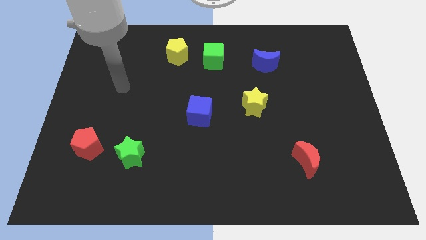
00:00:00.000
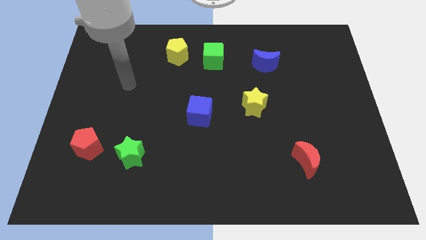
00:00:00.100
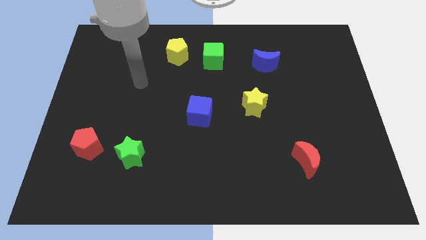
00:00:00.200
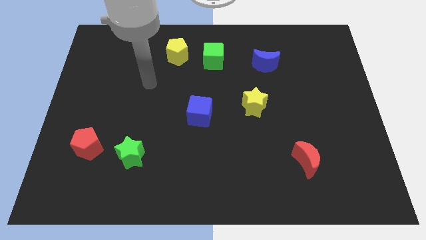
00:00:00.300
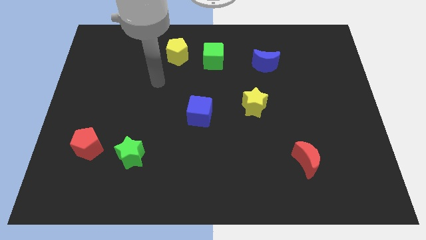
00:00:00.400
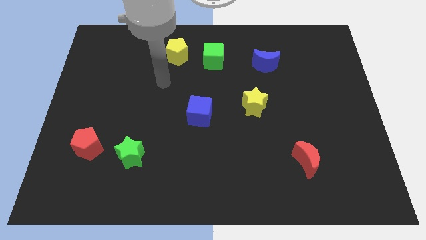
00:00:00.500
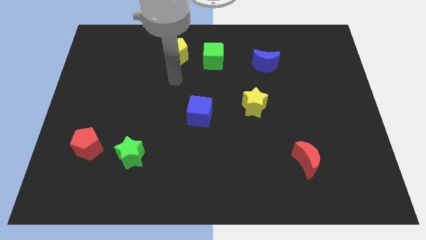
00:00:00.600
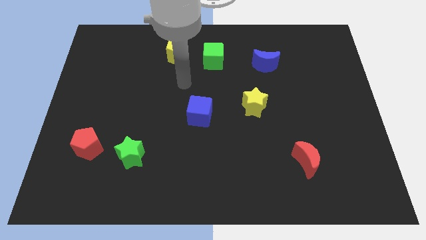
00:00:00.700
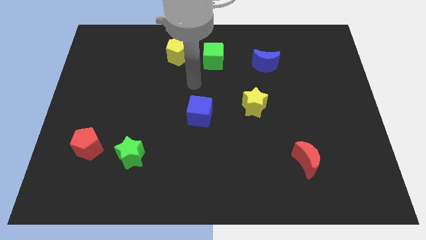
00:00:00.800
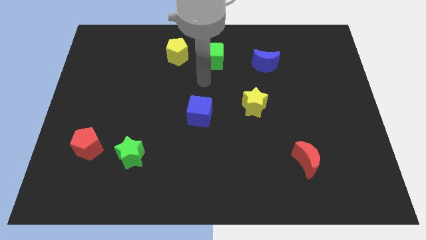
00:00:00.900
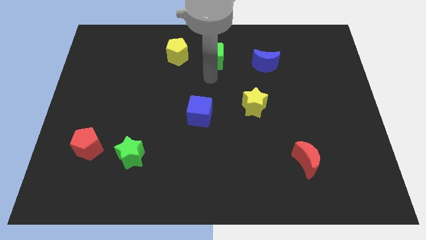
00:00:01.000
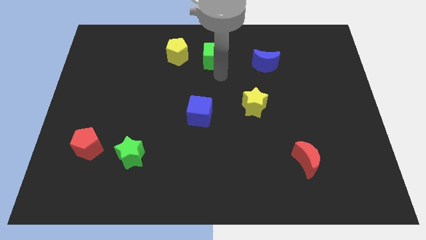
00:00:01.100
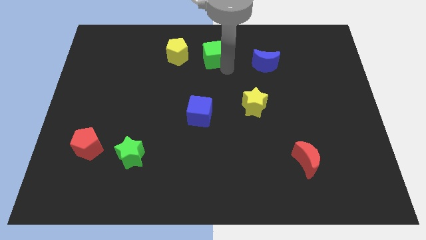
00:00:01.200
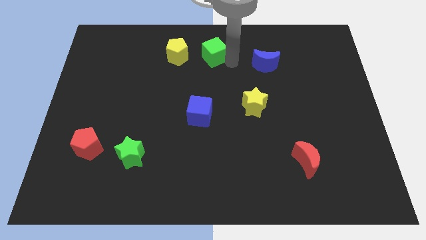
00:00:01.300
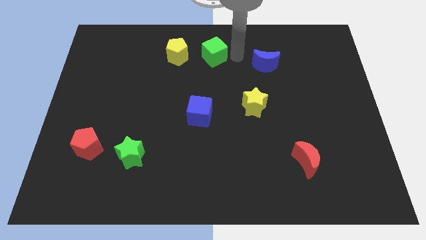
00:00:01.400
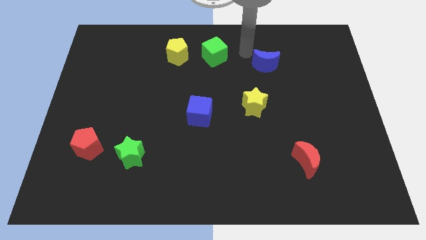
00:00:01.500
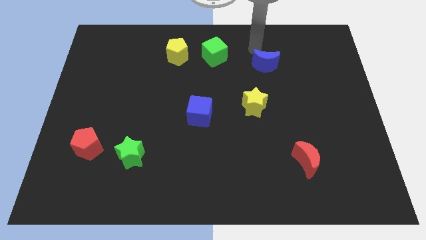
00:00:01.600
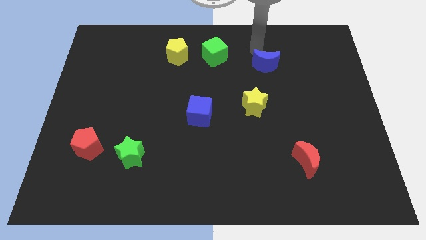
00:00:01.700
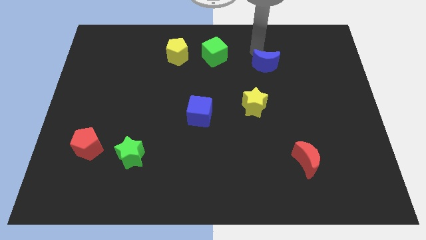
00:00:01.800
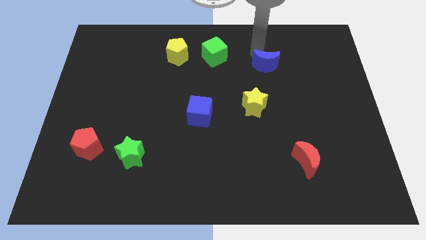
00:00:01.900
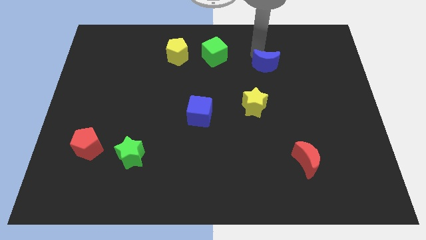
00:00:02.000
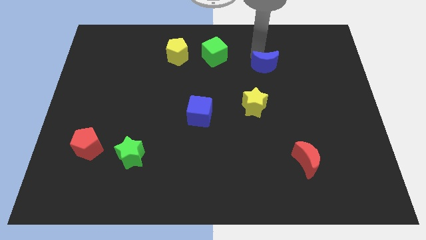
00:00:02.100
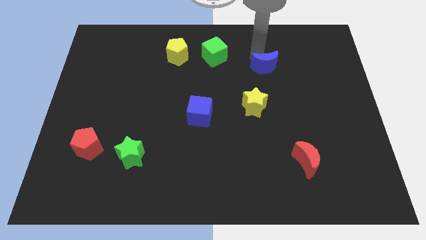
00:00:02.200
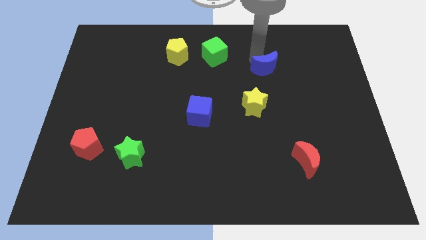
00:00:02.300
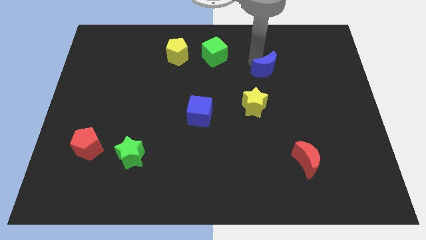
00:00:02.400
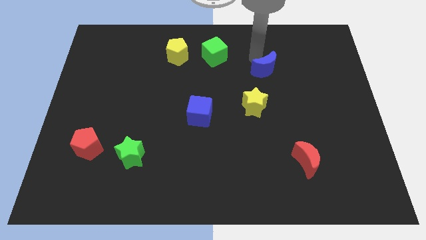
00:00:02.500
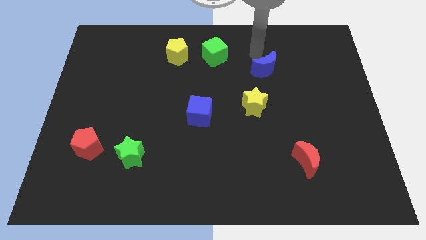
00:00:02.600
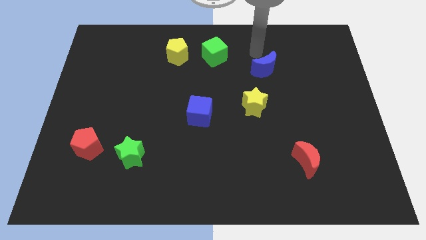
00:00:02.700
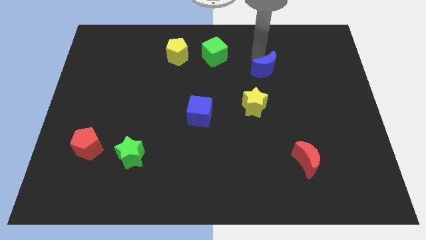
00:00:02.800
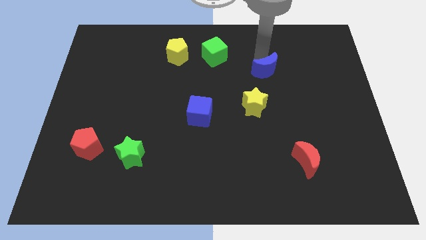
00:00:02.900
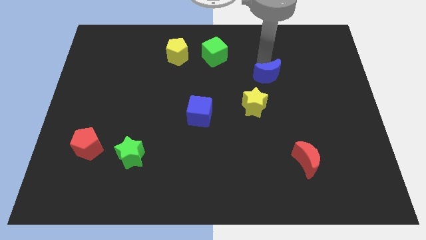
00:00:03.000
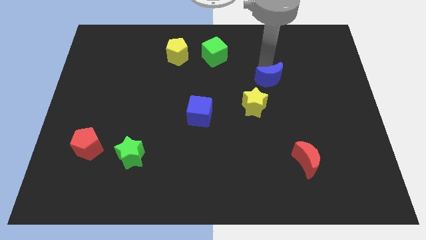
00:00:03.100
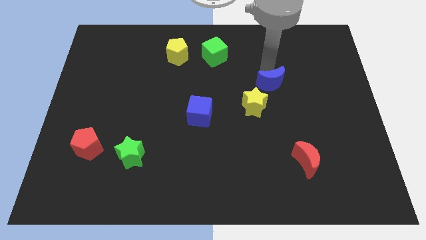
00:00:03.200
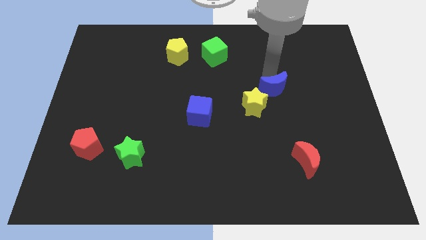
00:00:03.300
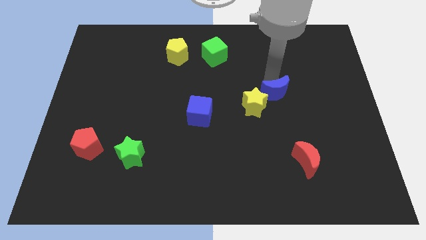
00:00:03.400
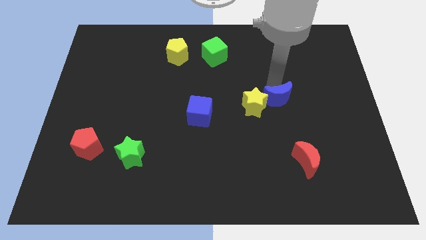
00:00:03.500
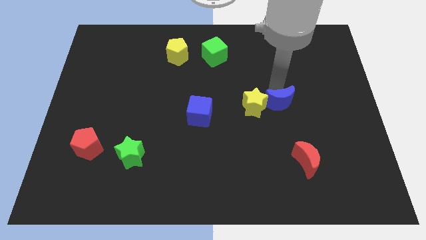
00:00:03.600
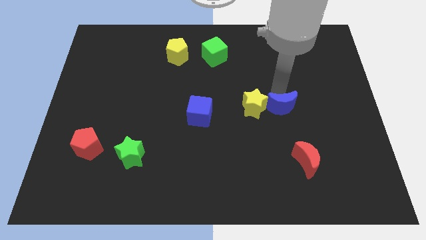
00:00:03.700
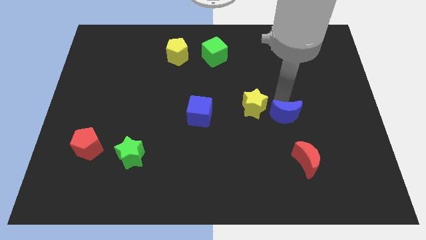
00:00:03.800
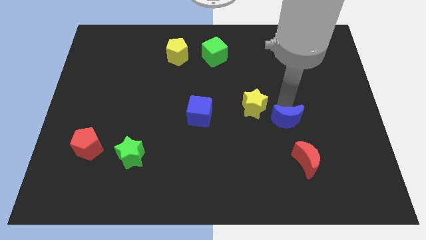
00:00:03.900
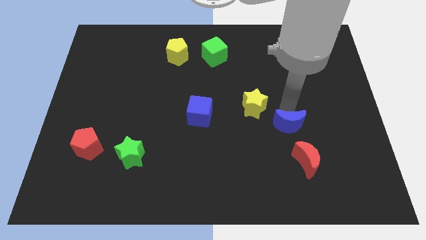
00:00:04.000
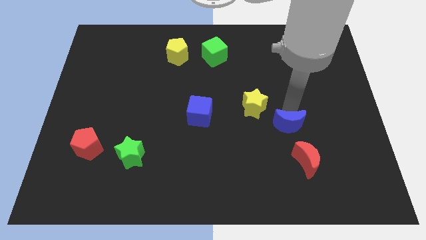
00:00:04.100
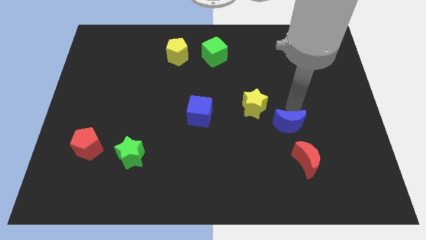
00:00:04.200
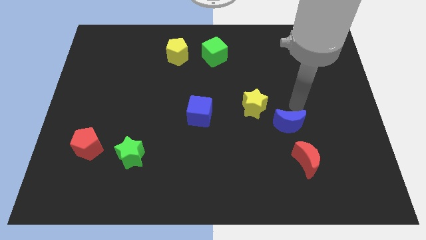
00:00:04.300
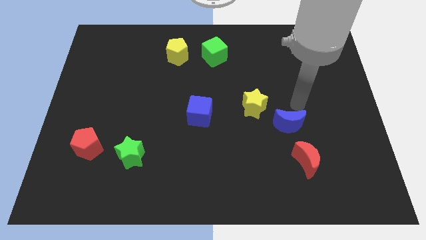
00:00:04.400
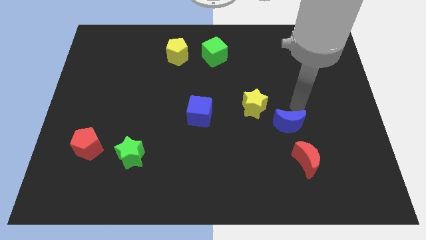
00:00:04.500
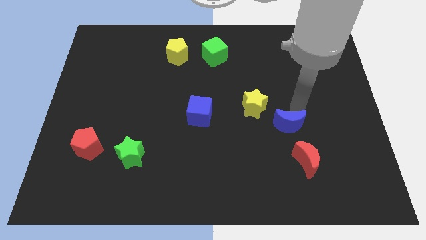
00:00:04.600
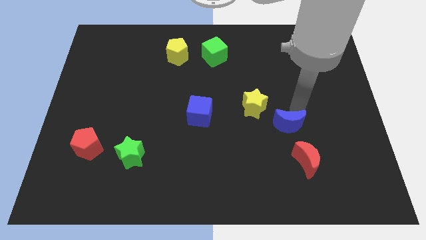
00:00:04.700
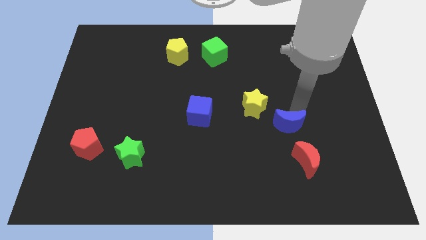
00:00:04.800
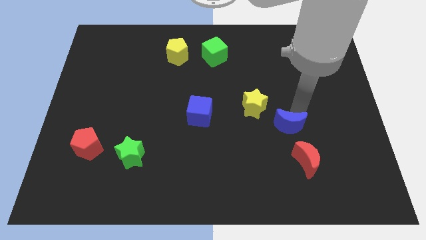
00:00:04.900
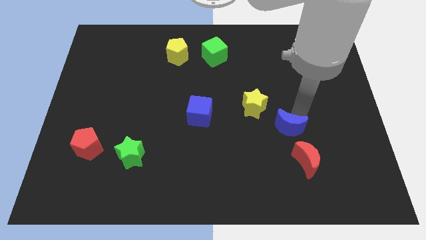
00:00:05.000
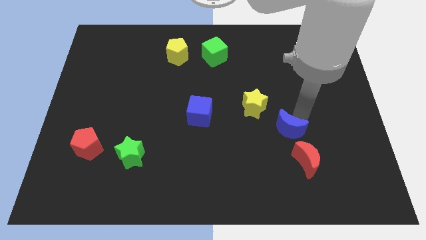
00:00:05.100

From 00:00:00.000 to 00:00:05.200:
slide the blue moon downwards

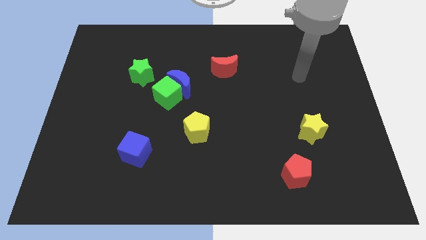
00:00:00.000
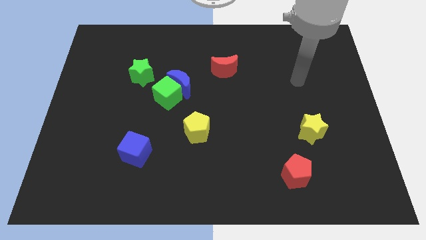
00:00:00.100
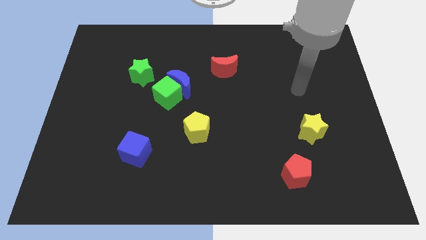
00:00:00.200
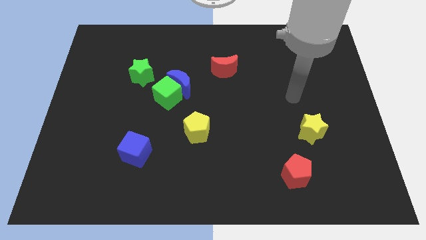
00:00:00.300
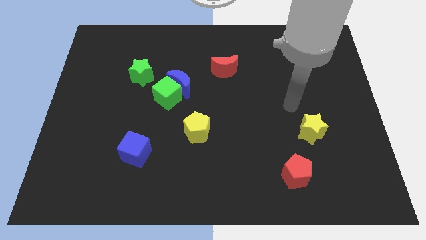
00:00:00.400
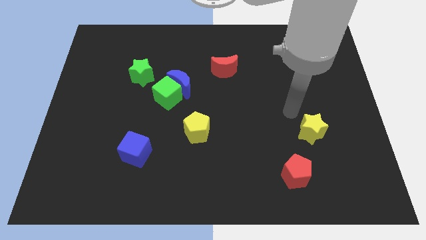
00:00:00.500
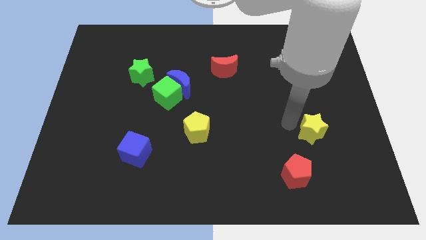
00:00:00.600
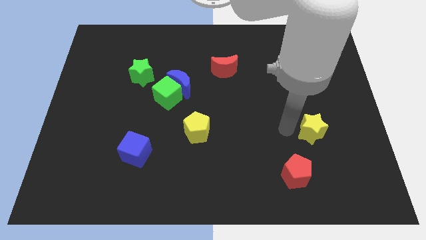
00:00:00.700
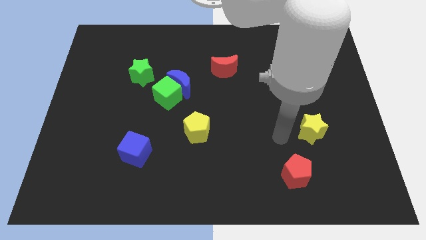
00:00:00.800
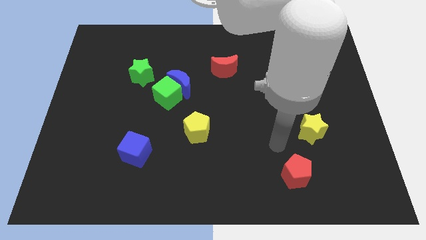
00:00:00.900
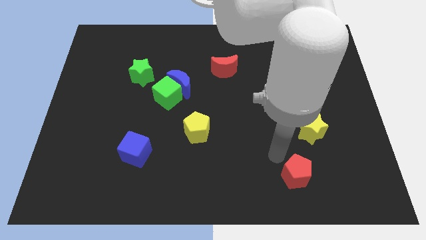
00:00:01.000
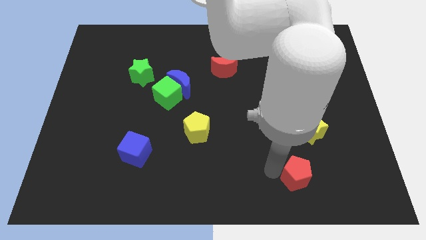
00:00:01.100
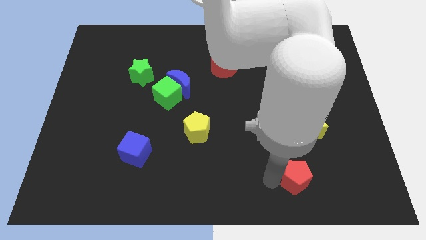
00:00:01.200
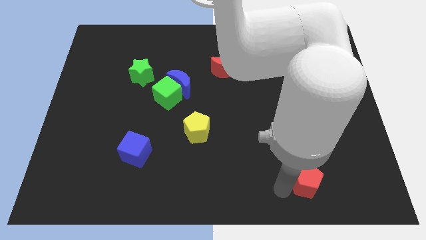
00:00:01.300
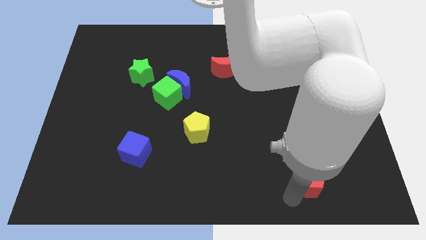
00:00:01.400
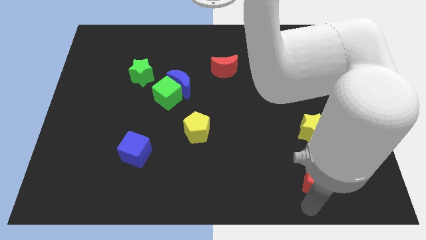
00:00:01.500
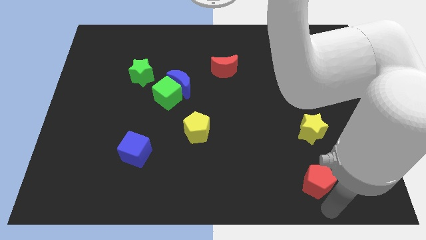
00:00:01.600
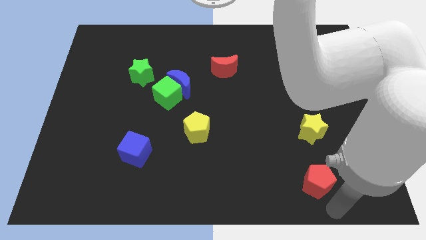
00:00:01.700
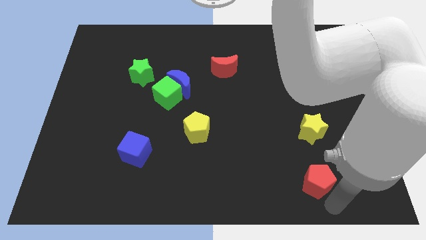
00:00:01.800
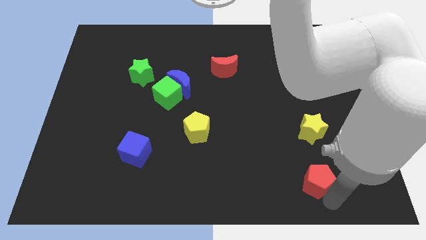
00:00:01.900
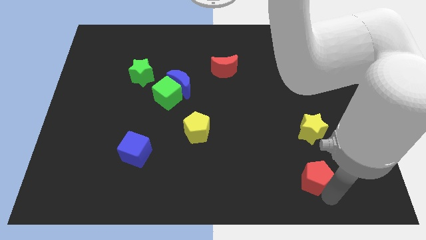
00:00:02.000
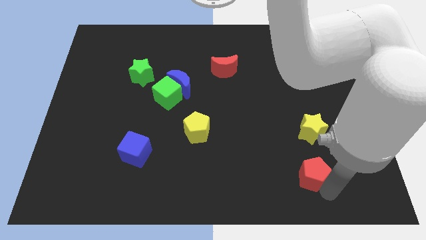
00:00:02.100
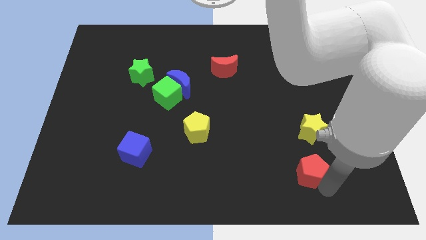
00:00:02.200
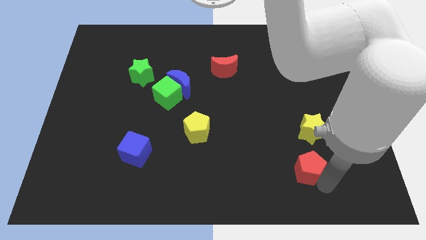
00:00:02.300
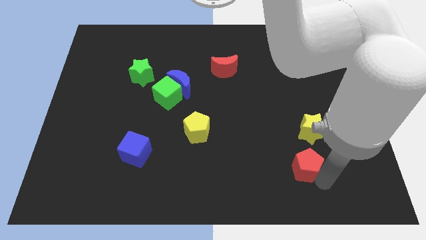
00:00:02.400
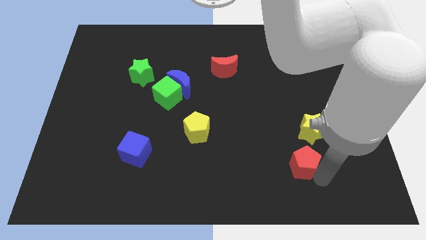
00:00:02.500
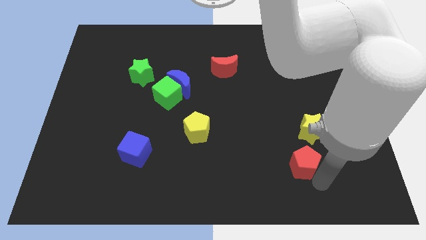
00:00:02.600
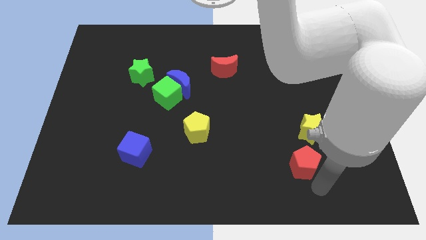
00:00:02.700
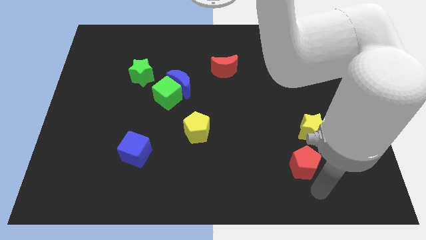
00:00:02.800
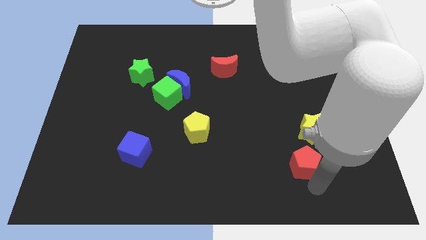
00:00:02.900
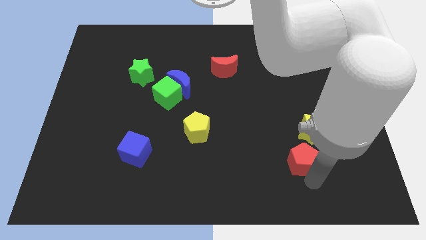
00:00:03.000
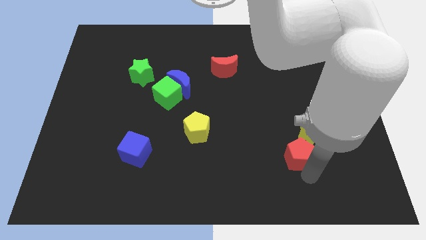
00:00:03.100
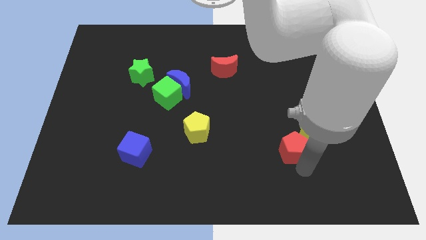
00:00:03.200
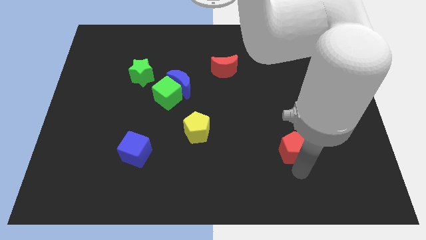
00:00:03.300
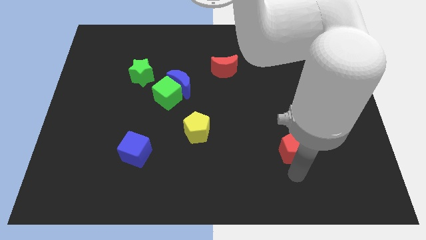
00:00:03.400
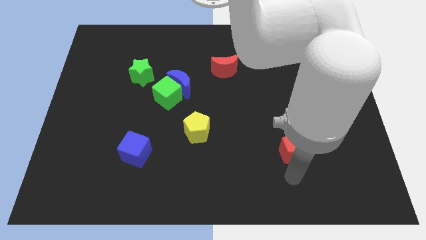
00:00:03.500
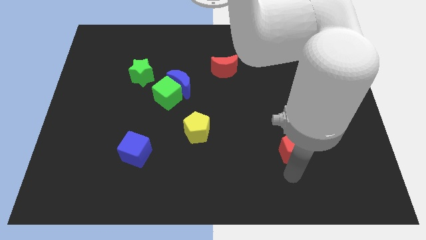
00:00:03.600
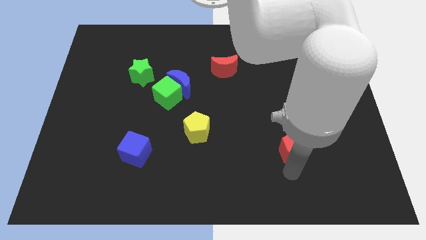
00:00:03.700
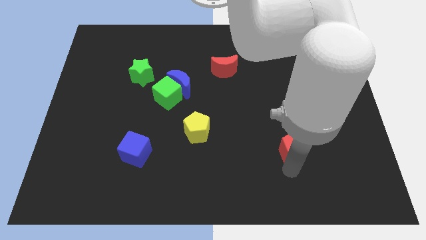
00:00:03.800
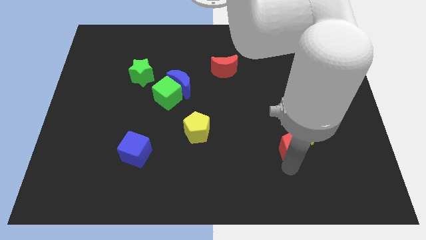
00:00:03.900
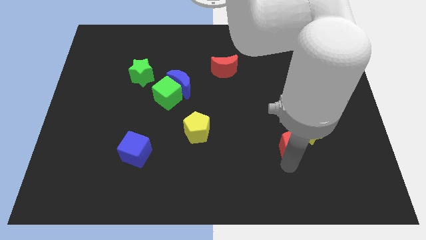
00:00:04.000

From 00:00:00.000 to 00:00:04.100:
slightly move the red pentagon up
